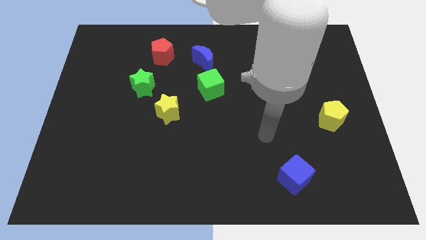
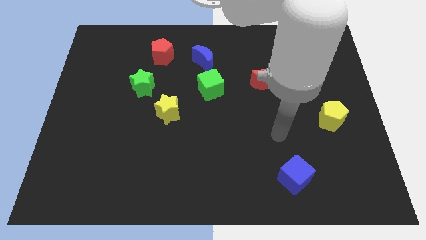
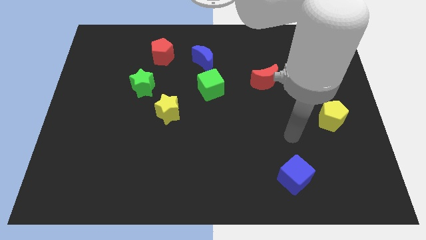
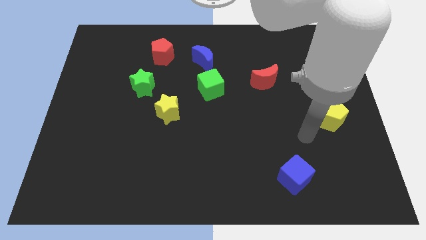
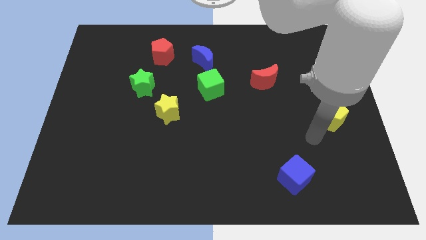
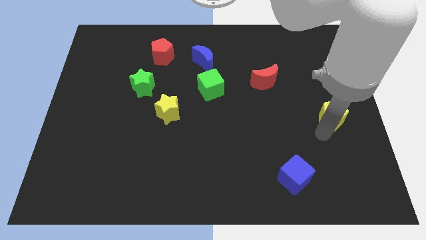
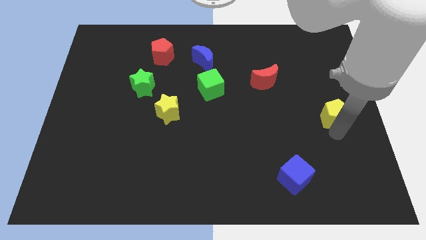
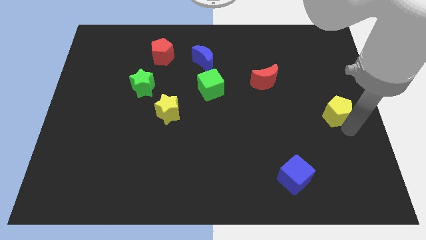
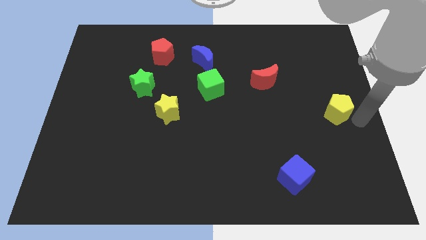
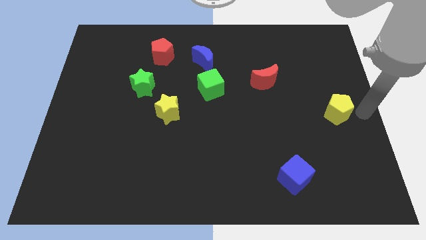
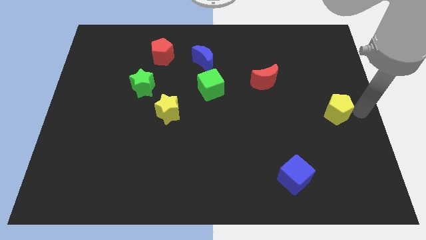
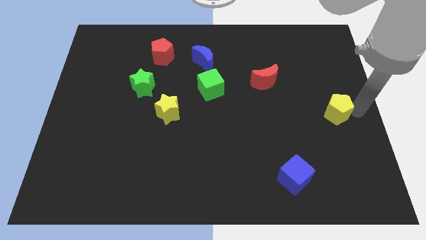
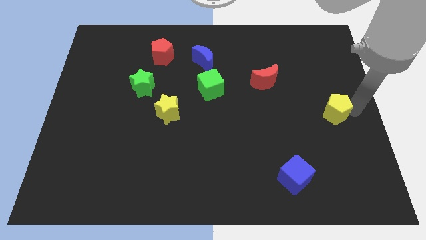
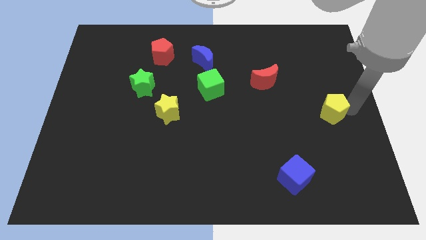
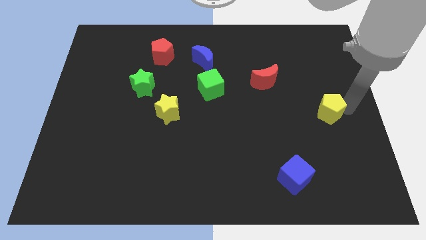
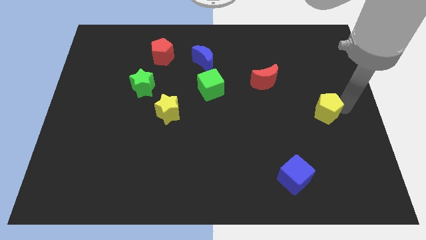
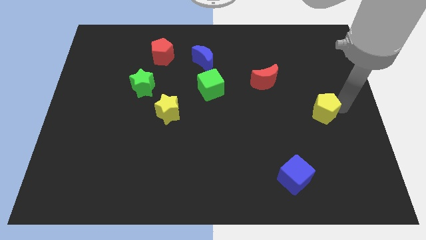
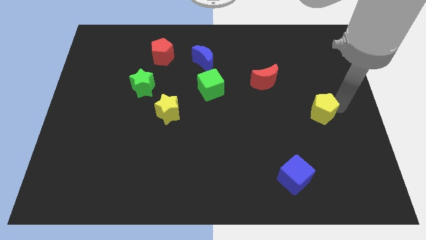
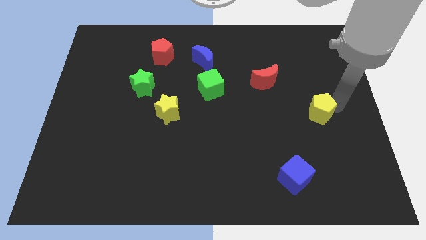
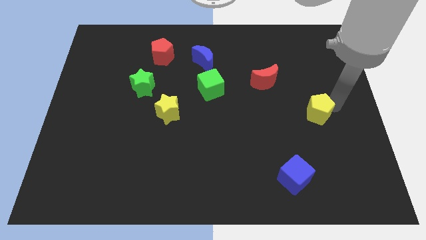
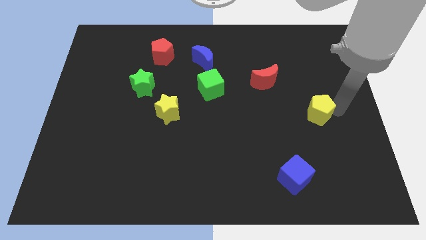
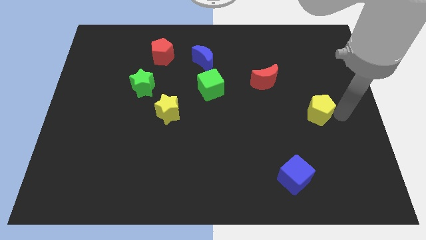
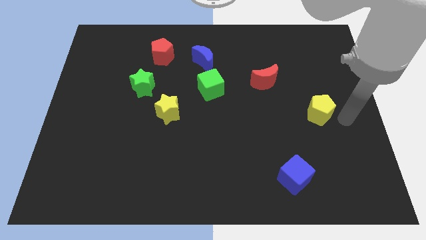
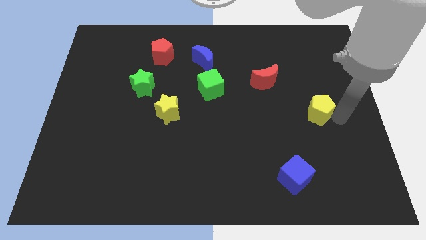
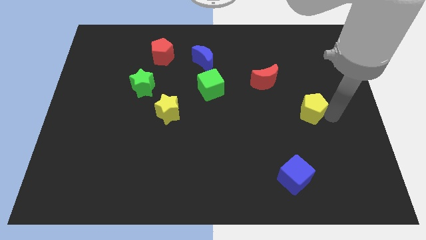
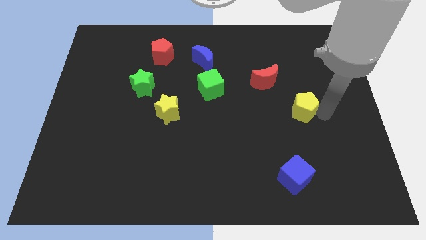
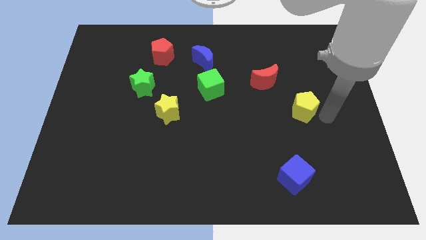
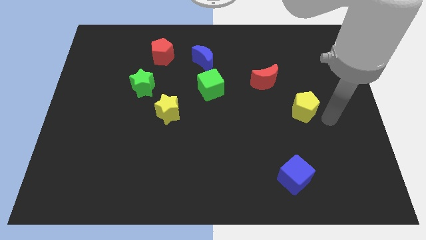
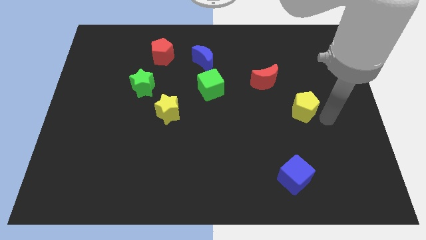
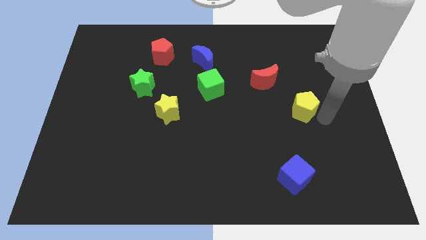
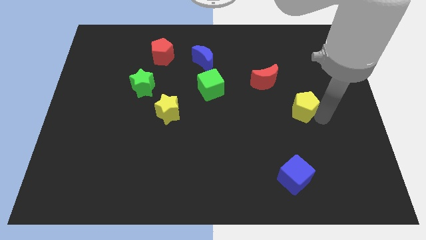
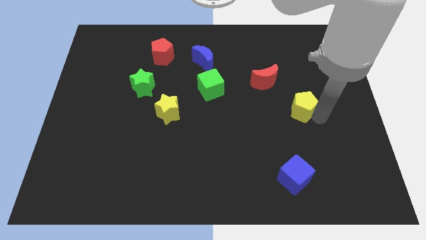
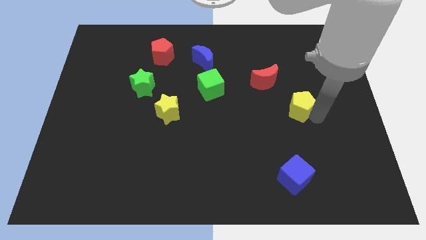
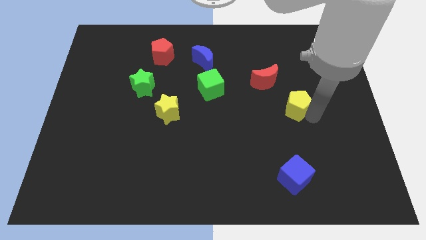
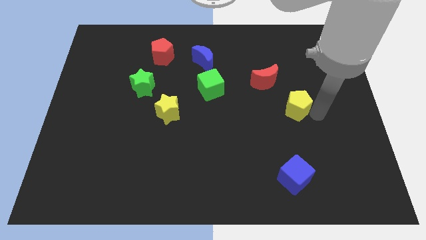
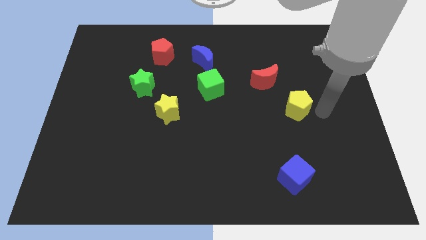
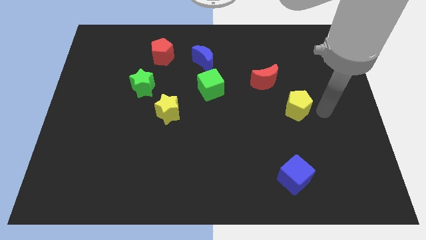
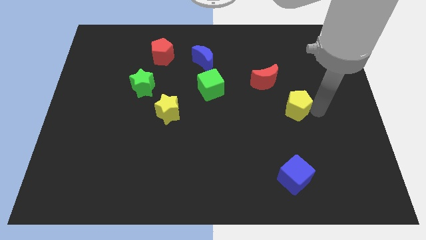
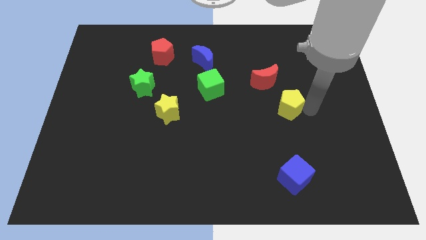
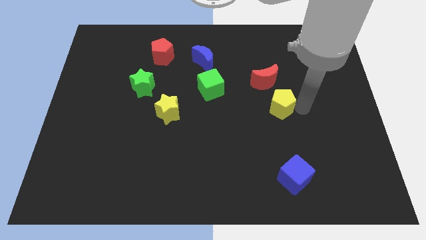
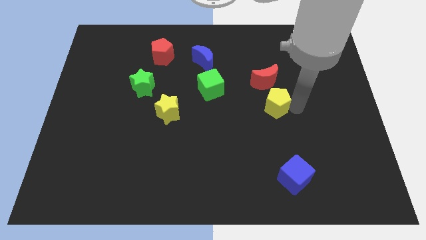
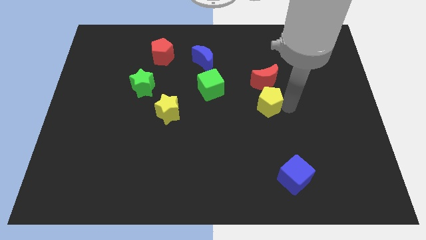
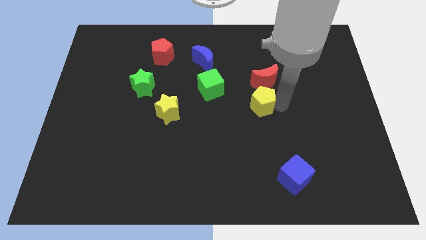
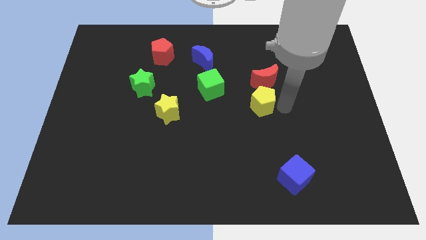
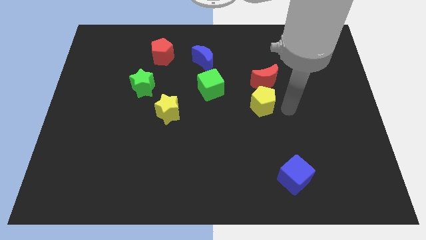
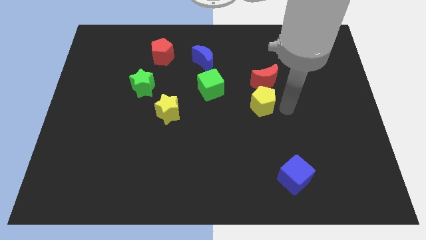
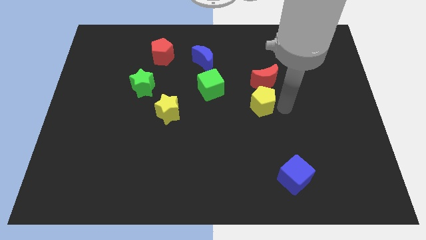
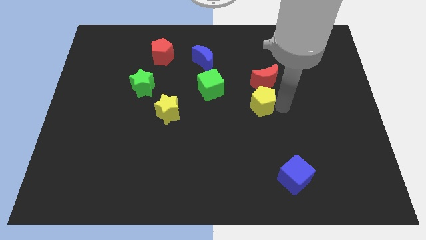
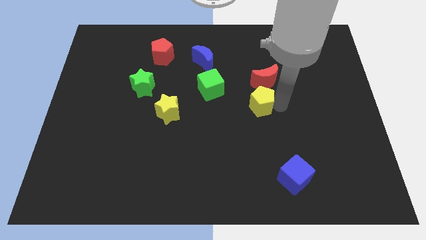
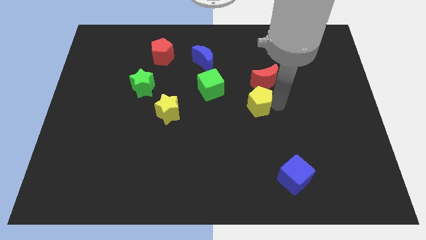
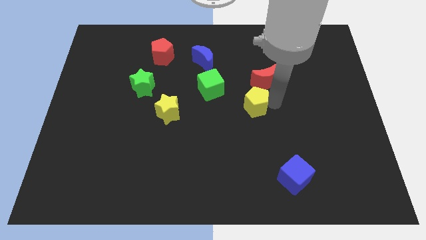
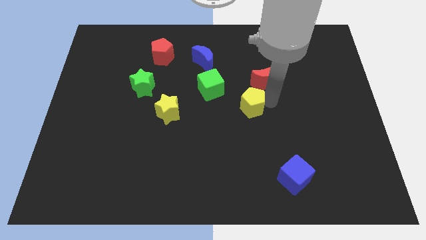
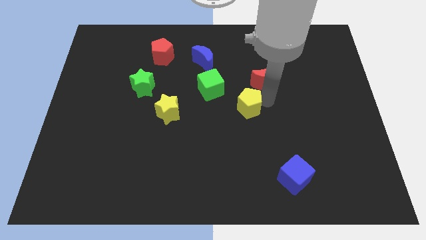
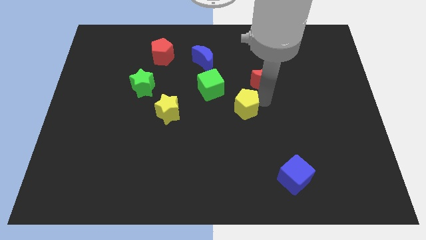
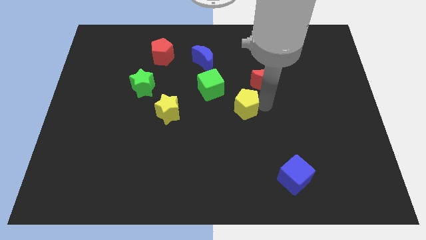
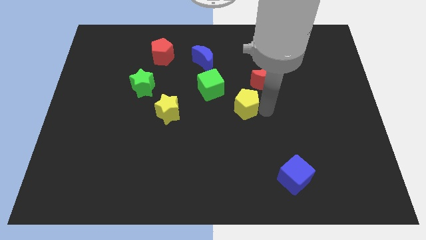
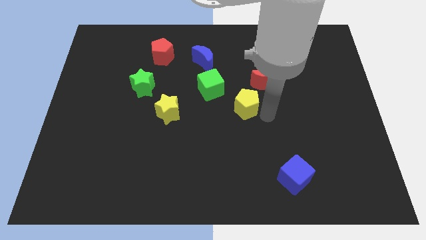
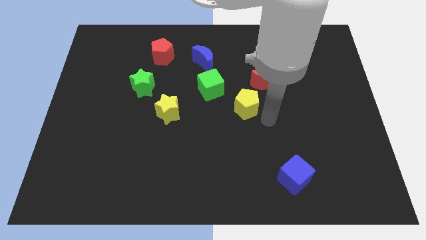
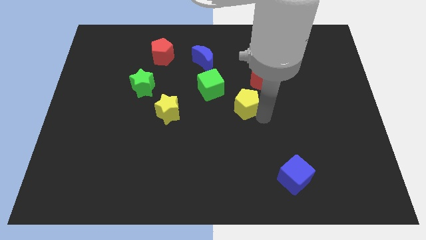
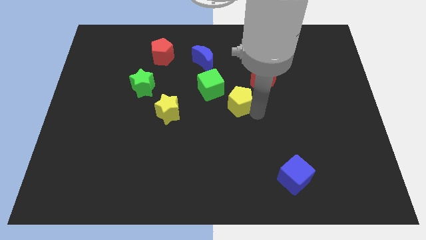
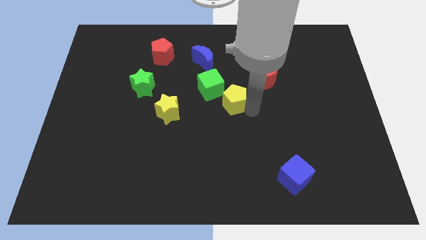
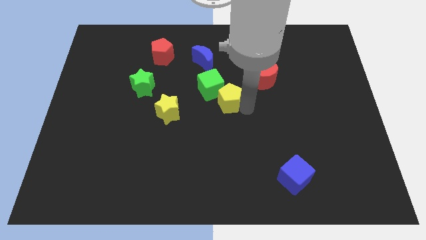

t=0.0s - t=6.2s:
push the yellow pentagon close to the green cube
